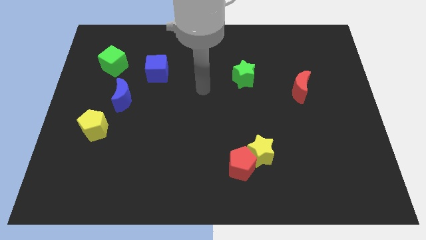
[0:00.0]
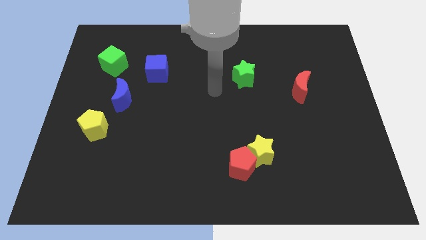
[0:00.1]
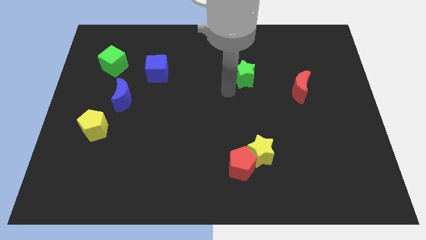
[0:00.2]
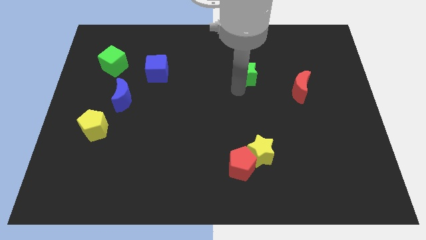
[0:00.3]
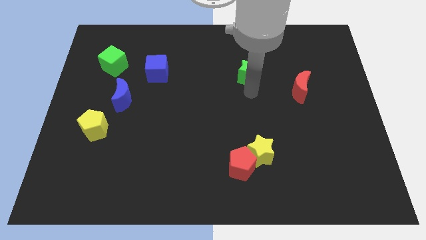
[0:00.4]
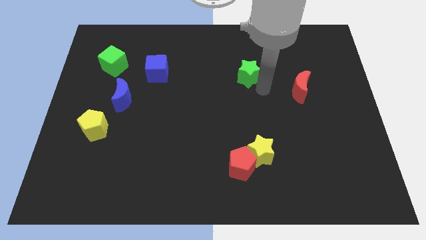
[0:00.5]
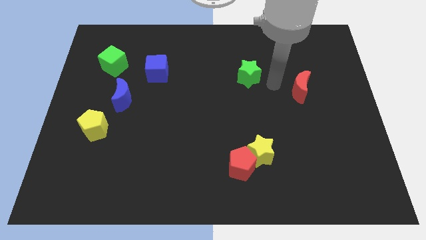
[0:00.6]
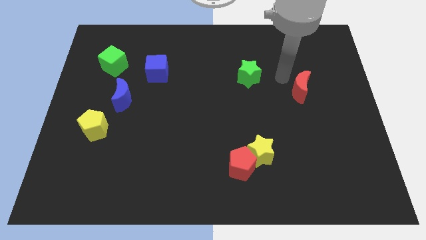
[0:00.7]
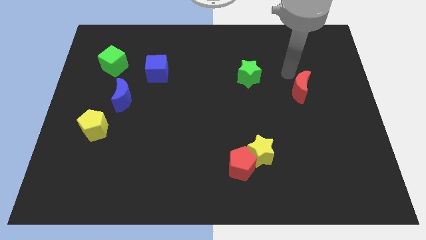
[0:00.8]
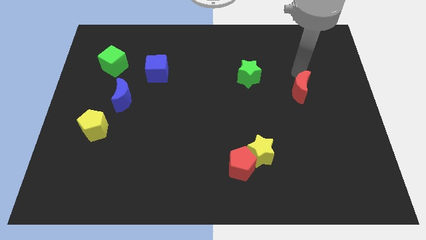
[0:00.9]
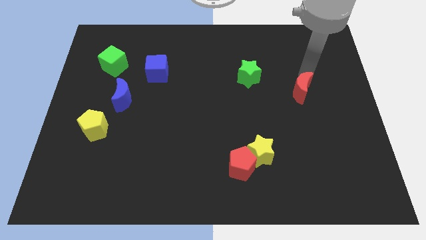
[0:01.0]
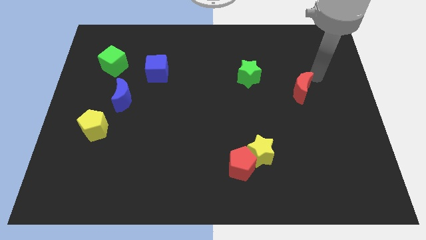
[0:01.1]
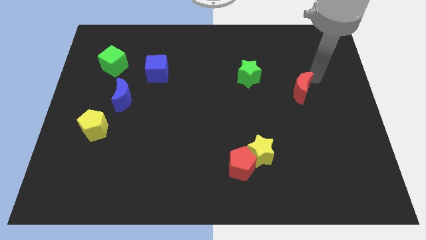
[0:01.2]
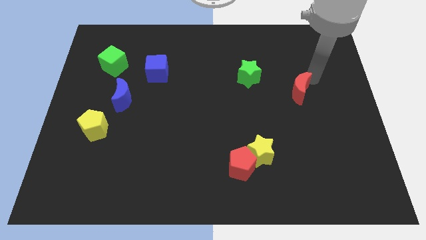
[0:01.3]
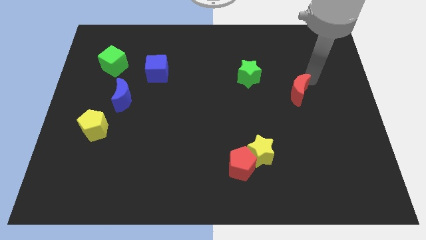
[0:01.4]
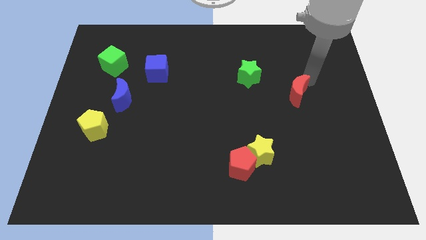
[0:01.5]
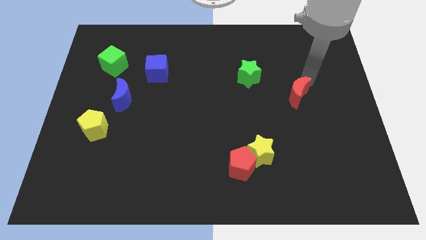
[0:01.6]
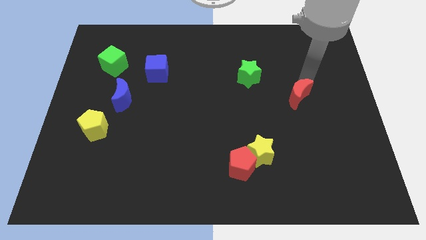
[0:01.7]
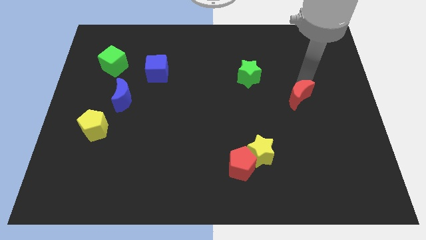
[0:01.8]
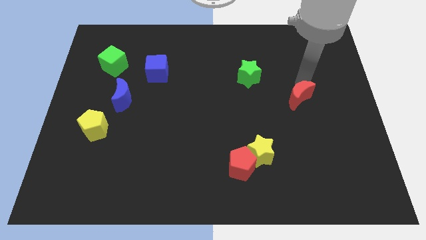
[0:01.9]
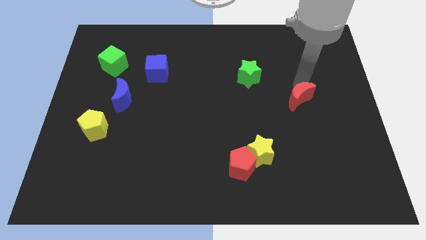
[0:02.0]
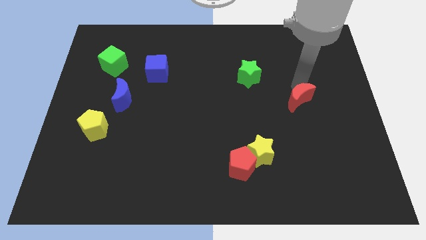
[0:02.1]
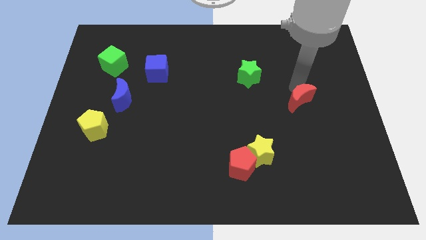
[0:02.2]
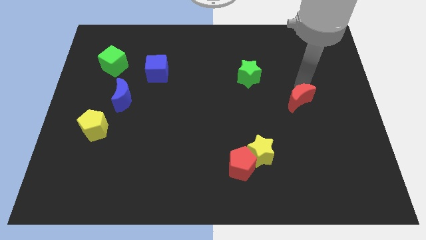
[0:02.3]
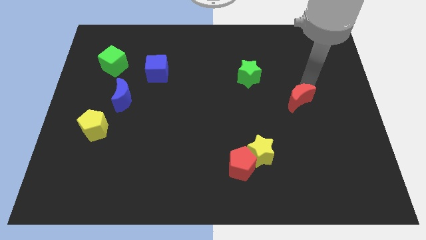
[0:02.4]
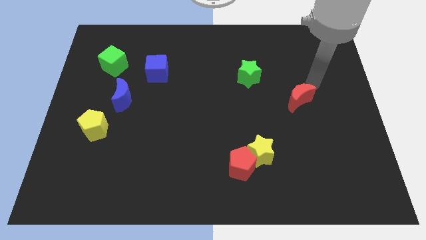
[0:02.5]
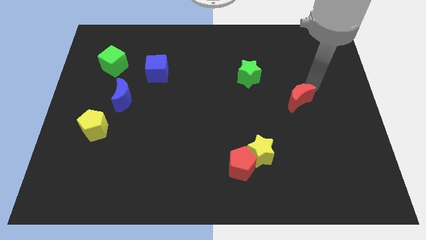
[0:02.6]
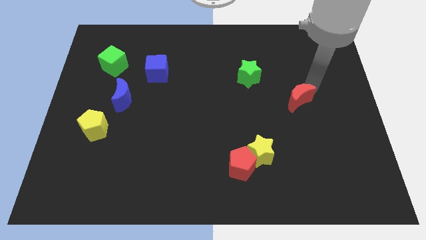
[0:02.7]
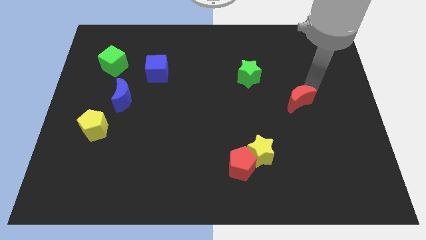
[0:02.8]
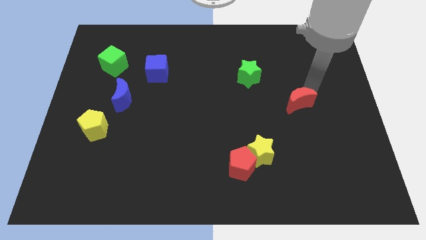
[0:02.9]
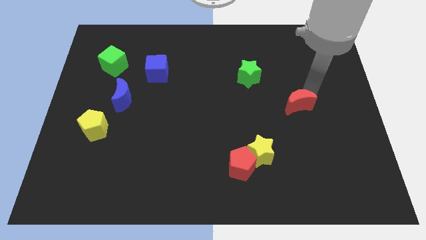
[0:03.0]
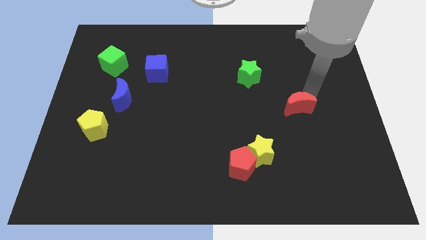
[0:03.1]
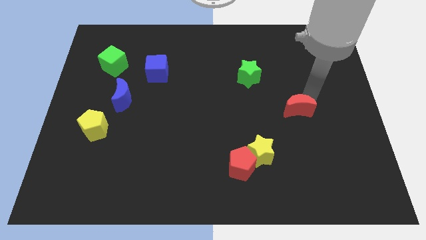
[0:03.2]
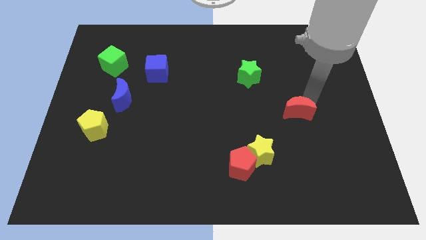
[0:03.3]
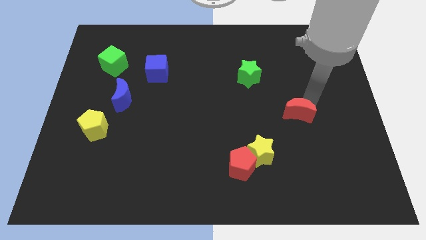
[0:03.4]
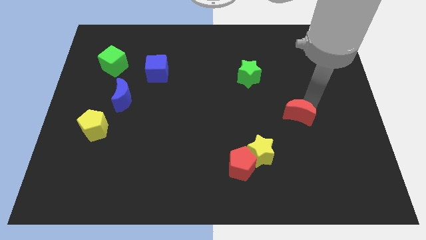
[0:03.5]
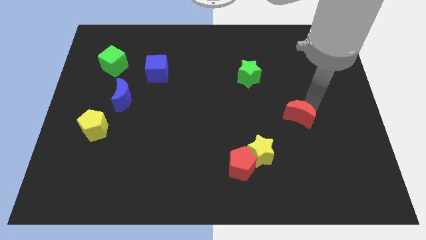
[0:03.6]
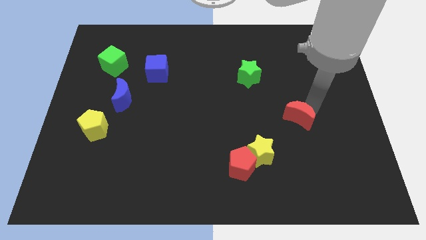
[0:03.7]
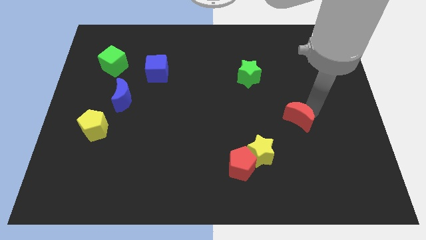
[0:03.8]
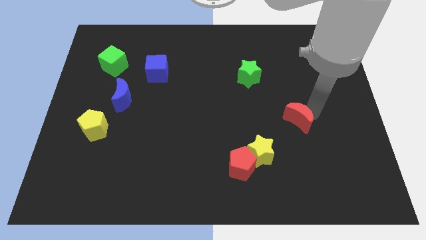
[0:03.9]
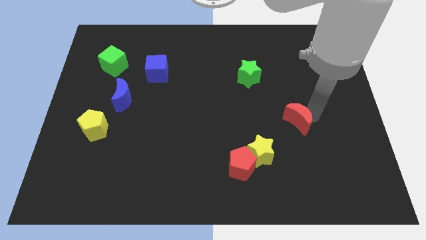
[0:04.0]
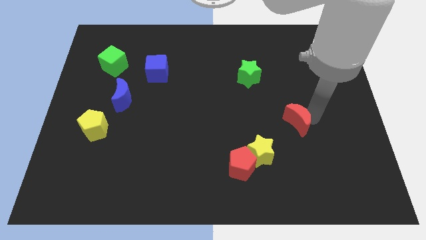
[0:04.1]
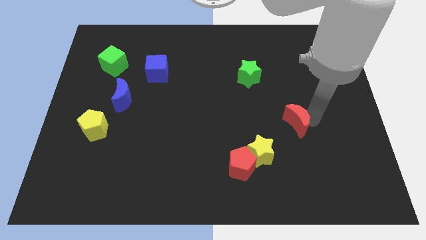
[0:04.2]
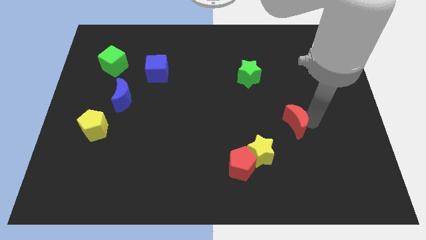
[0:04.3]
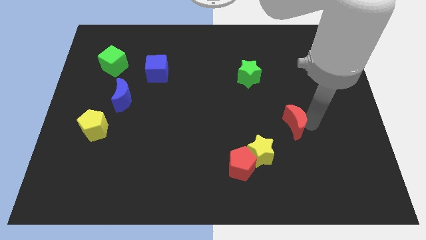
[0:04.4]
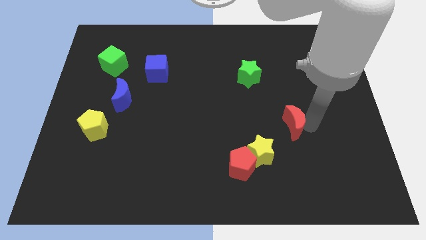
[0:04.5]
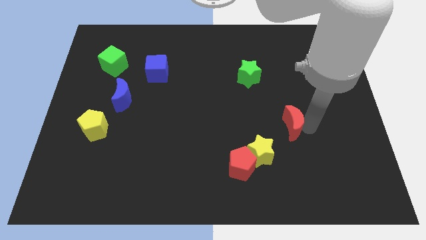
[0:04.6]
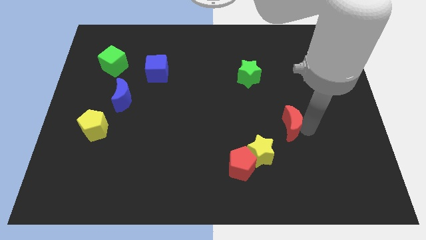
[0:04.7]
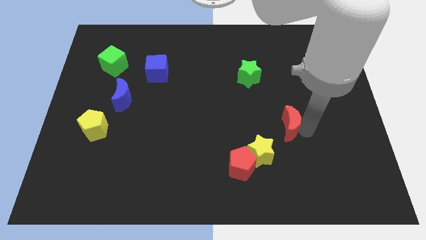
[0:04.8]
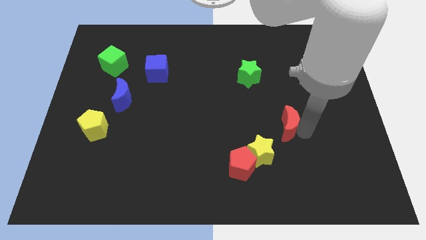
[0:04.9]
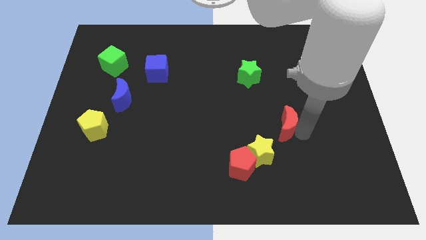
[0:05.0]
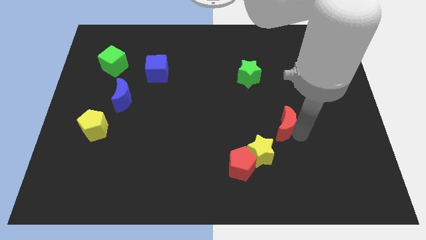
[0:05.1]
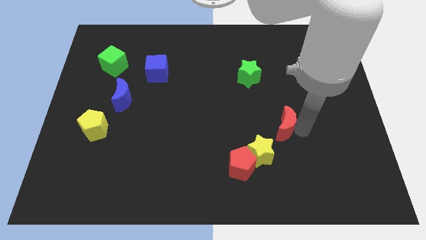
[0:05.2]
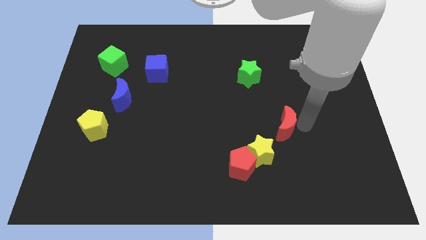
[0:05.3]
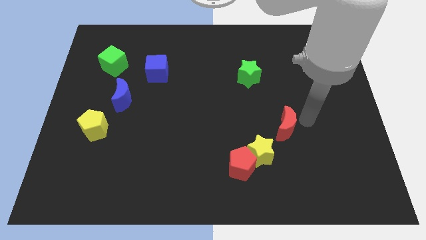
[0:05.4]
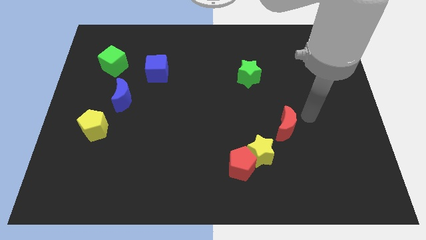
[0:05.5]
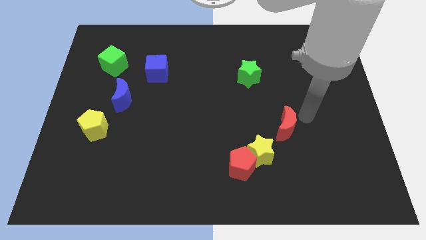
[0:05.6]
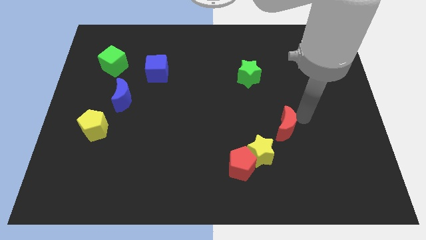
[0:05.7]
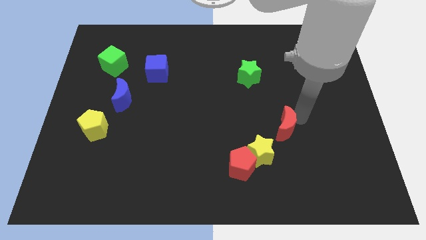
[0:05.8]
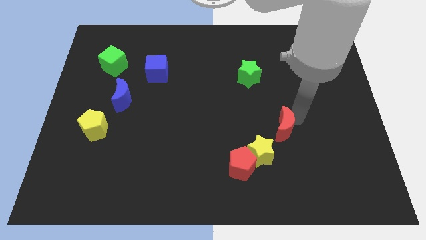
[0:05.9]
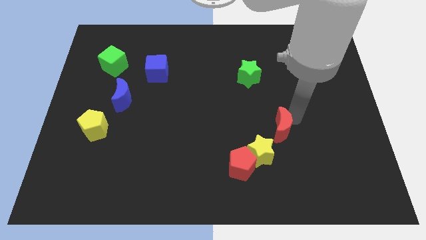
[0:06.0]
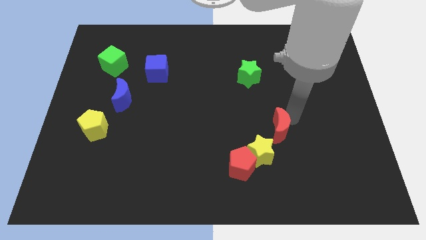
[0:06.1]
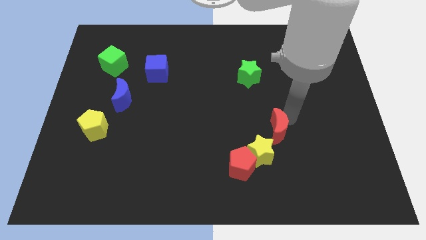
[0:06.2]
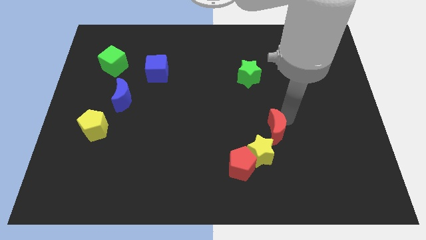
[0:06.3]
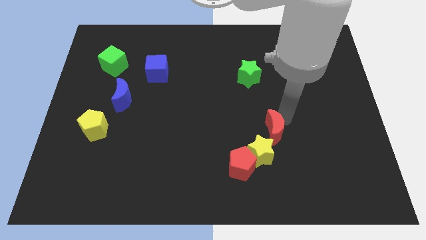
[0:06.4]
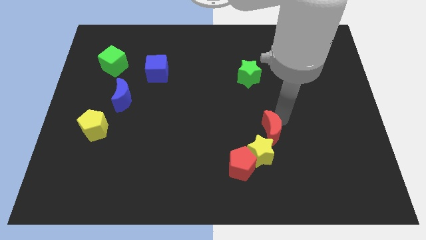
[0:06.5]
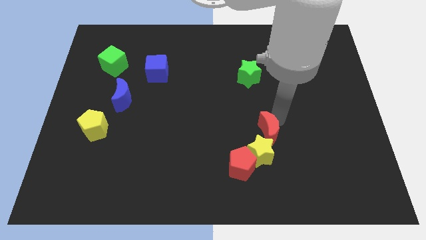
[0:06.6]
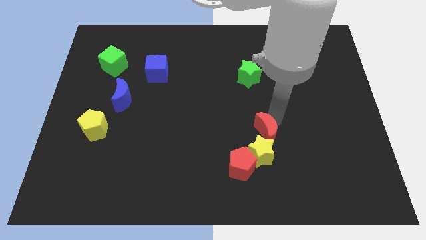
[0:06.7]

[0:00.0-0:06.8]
put the red moon towards the yellow star

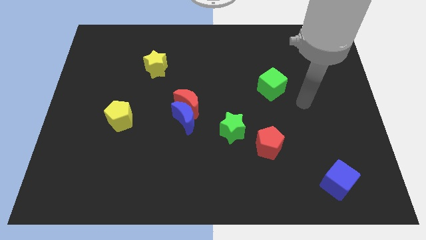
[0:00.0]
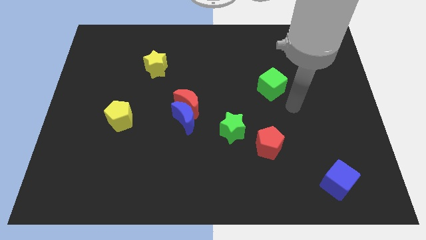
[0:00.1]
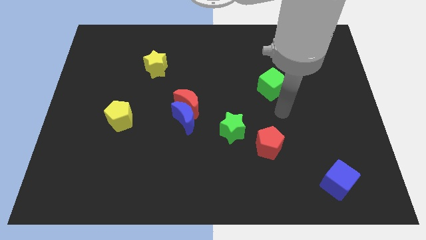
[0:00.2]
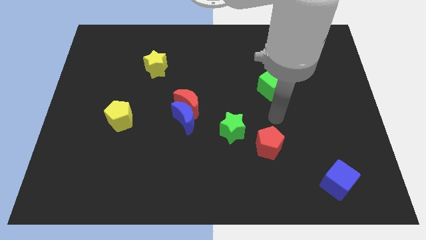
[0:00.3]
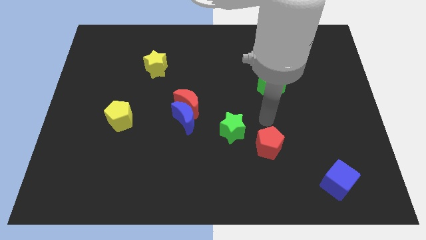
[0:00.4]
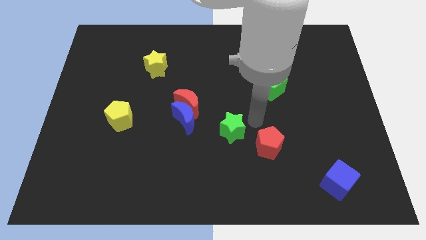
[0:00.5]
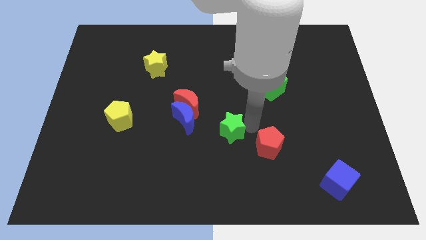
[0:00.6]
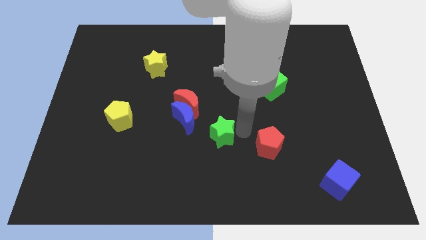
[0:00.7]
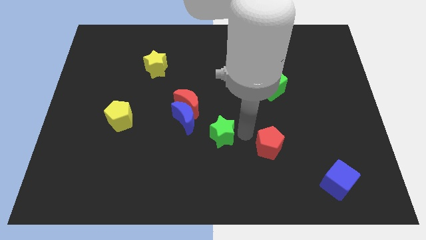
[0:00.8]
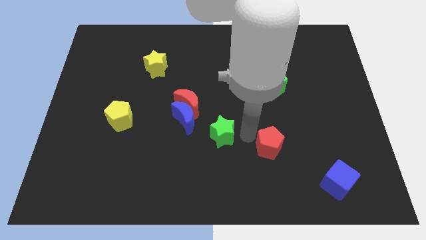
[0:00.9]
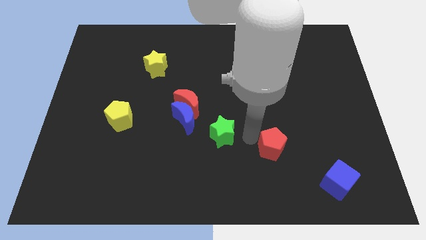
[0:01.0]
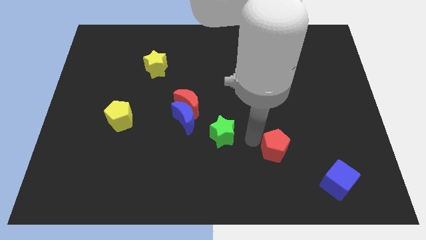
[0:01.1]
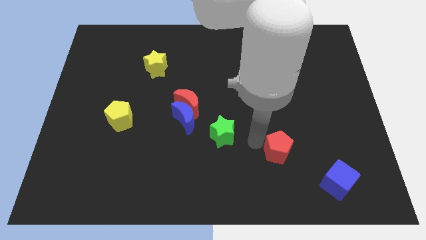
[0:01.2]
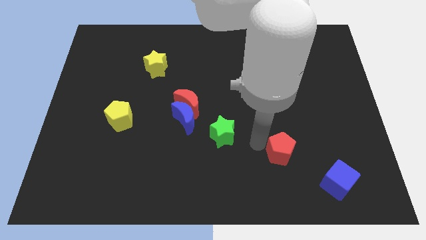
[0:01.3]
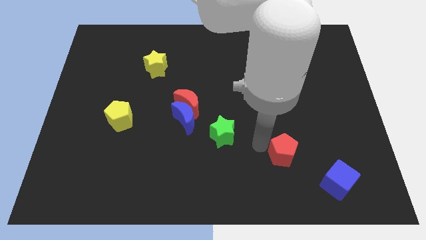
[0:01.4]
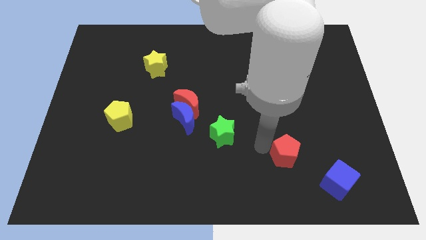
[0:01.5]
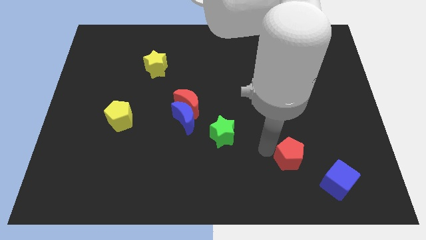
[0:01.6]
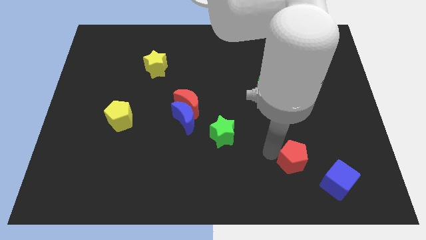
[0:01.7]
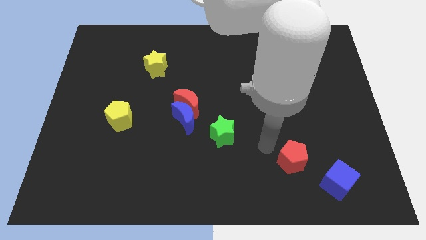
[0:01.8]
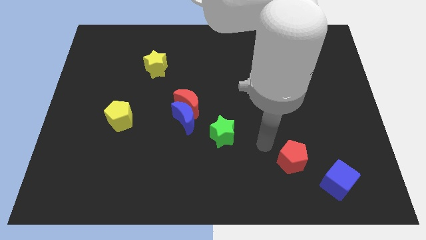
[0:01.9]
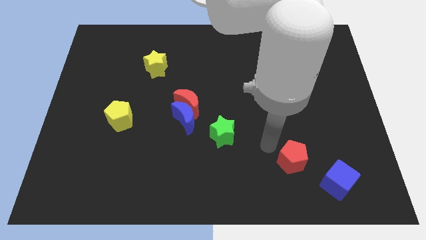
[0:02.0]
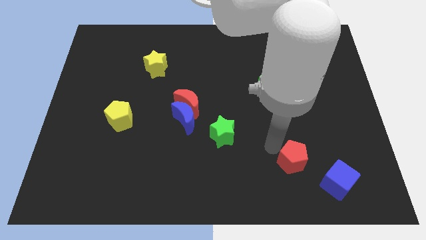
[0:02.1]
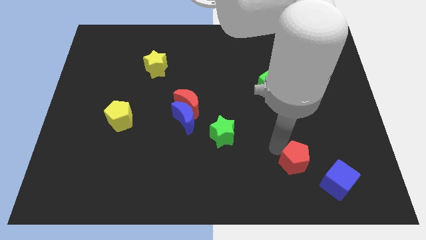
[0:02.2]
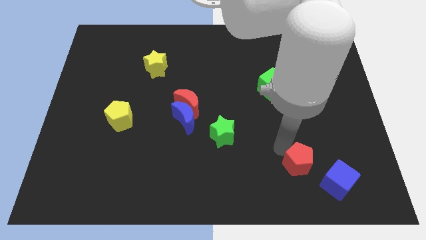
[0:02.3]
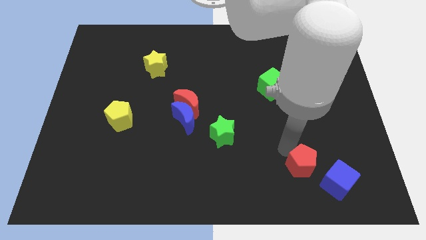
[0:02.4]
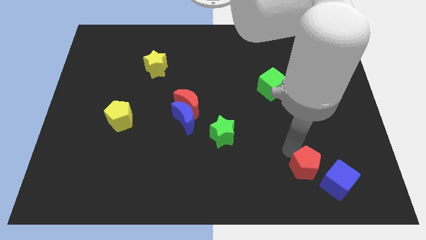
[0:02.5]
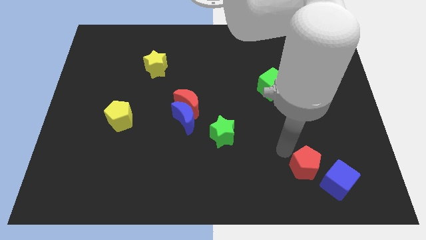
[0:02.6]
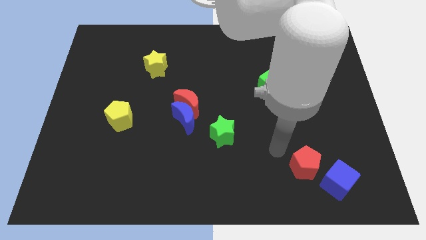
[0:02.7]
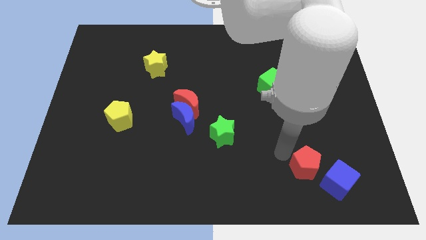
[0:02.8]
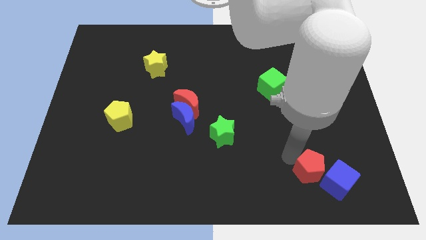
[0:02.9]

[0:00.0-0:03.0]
slide the red pentagon towards the blue cube
